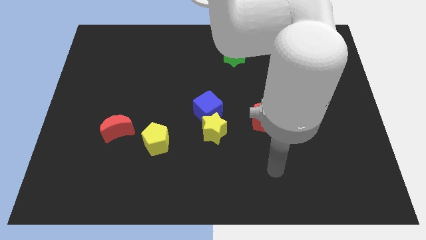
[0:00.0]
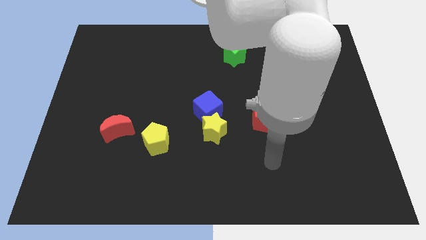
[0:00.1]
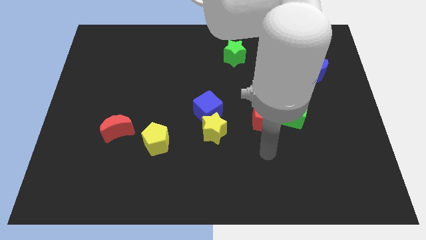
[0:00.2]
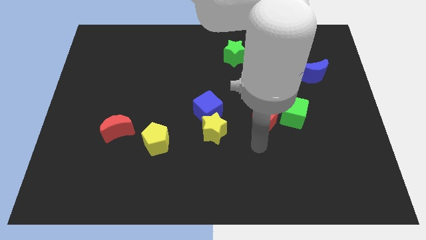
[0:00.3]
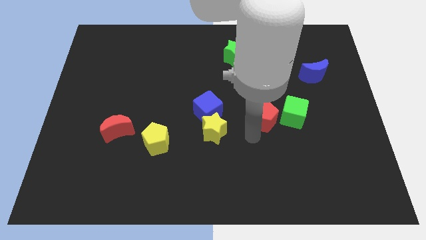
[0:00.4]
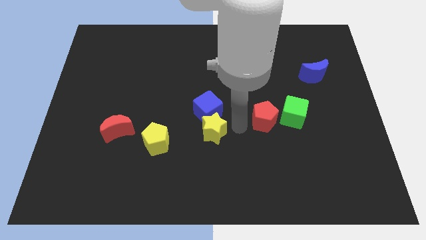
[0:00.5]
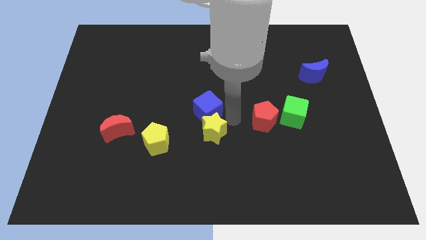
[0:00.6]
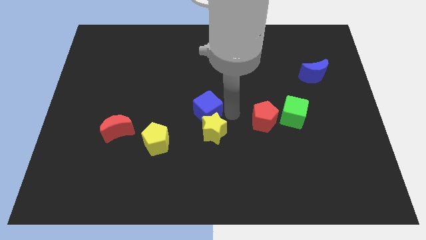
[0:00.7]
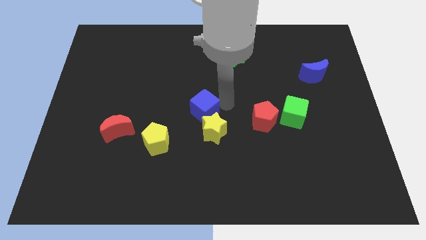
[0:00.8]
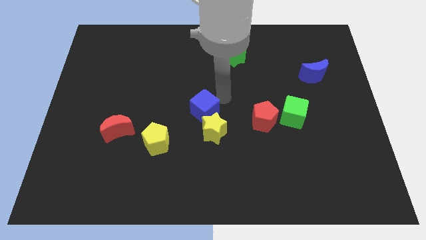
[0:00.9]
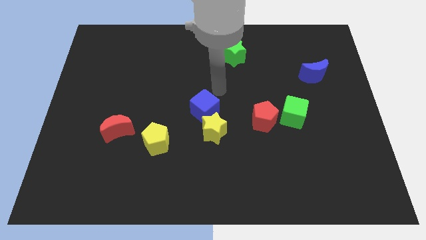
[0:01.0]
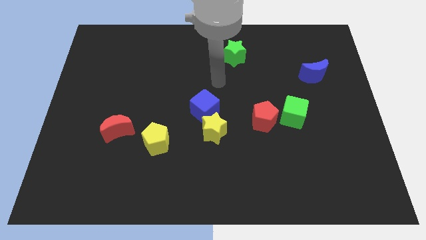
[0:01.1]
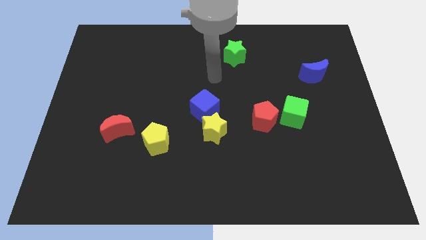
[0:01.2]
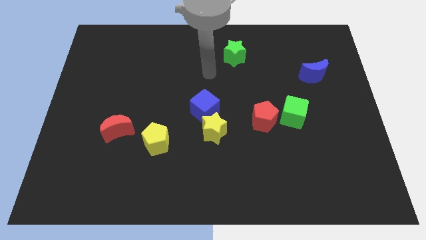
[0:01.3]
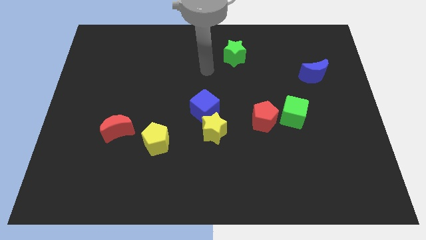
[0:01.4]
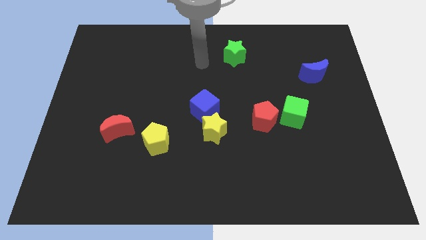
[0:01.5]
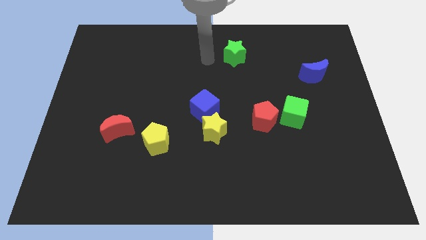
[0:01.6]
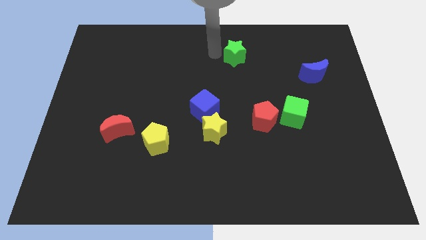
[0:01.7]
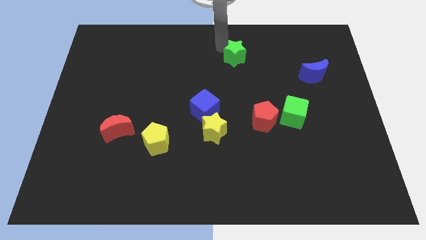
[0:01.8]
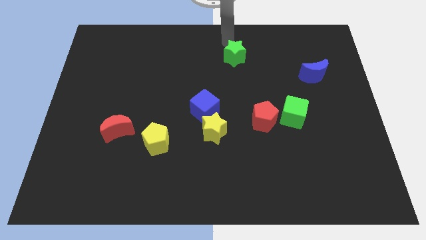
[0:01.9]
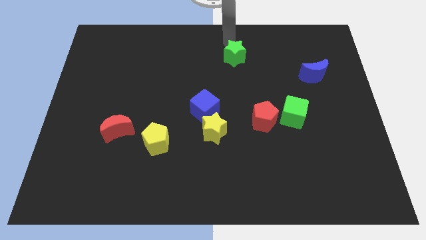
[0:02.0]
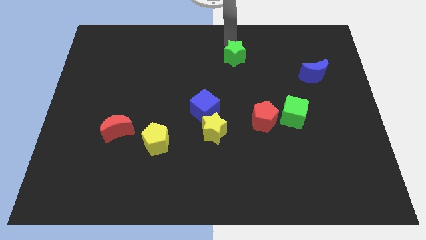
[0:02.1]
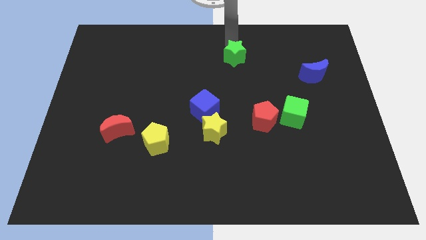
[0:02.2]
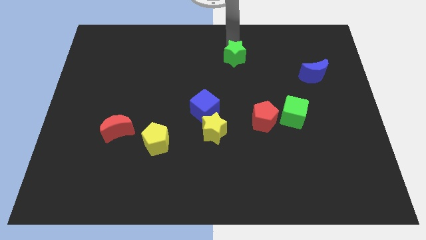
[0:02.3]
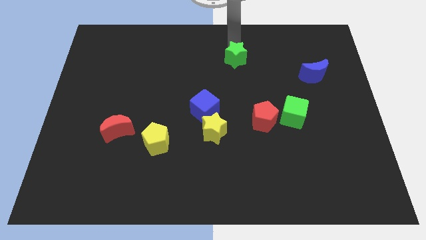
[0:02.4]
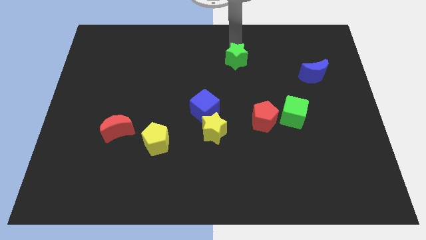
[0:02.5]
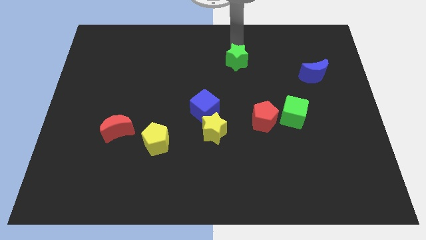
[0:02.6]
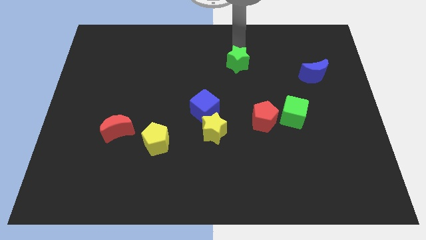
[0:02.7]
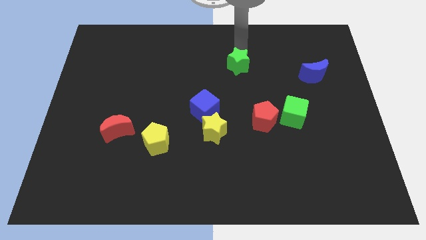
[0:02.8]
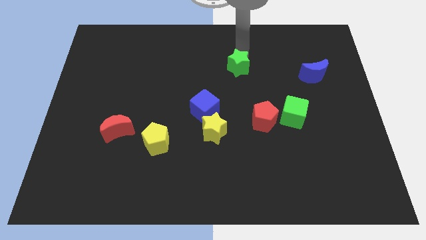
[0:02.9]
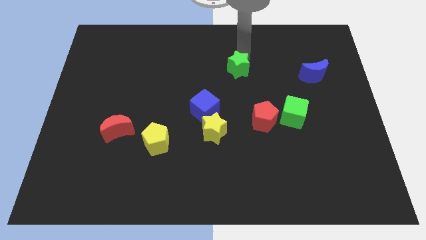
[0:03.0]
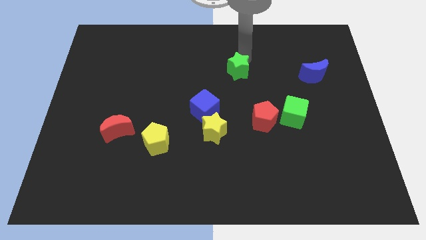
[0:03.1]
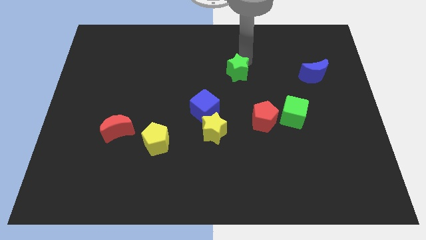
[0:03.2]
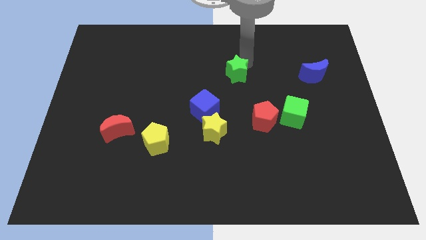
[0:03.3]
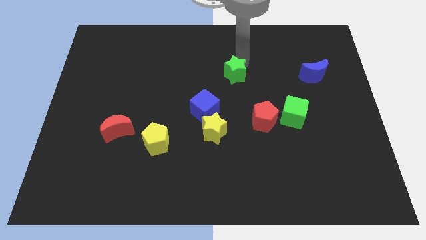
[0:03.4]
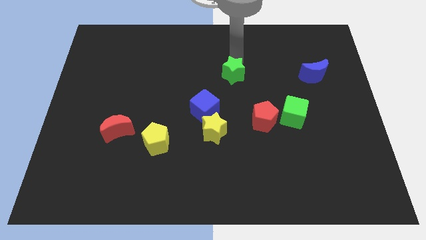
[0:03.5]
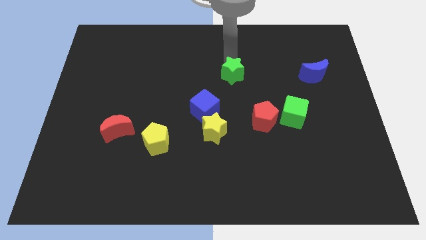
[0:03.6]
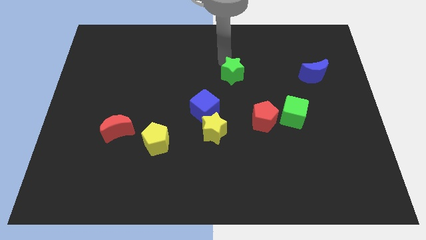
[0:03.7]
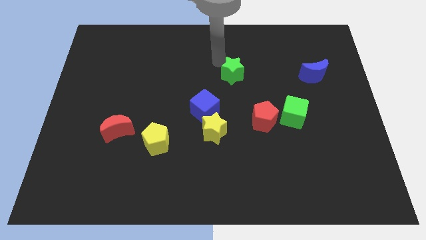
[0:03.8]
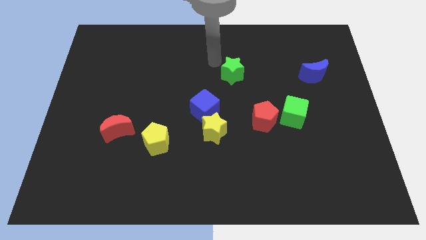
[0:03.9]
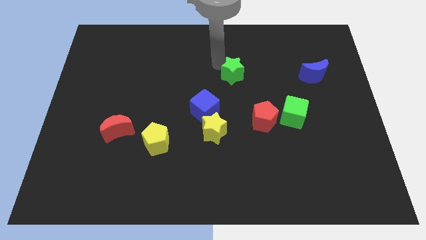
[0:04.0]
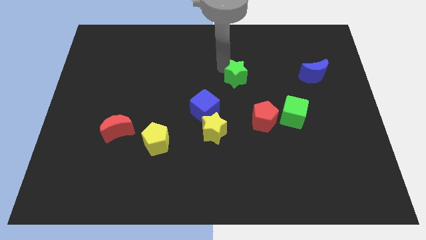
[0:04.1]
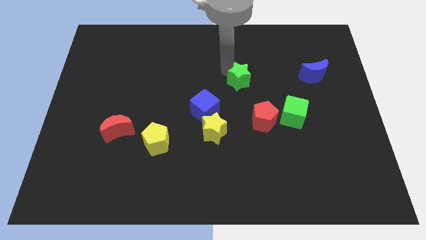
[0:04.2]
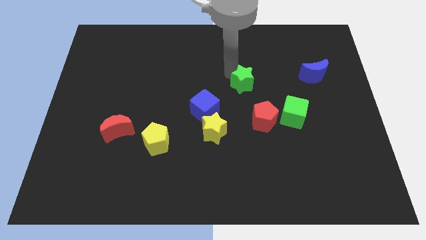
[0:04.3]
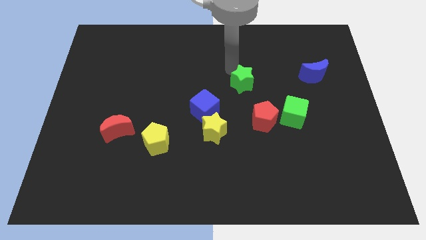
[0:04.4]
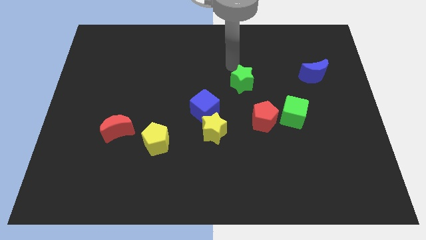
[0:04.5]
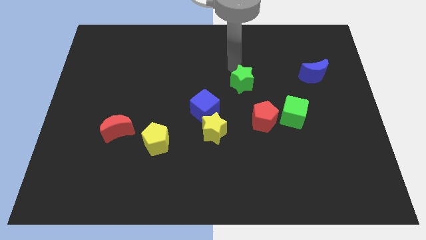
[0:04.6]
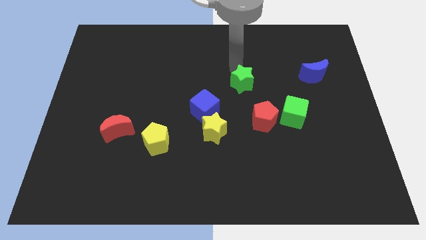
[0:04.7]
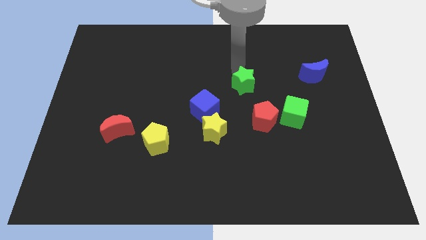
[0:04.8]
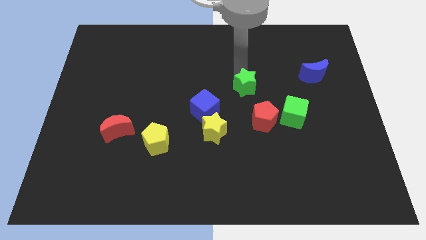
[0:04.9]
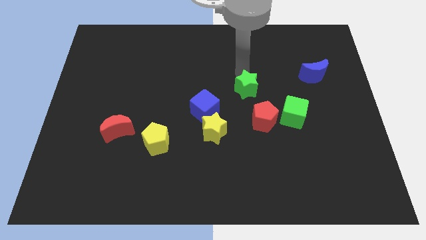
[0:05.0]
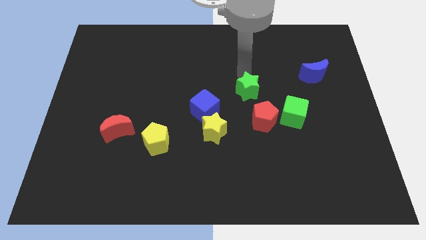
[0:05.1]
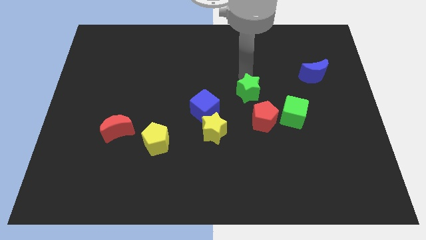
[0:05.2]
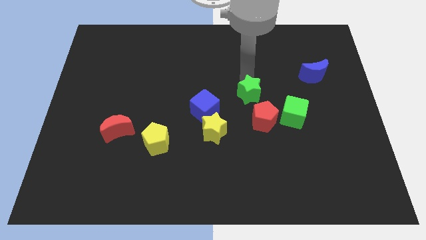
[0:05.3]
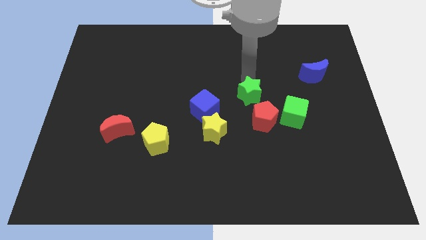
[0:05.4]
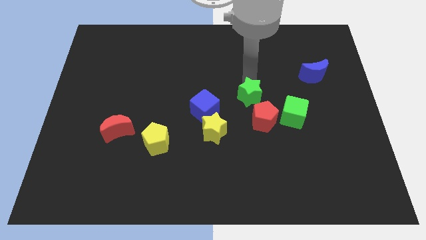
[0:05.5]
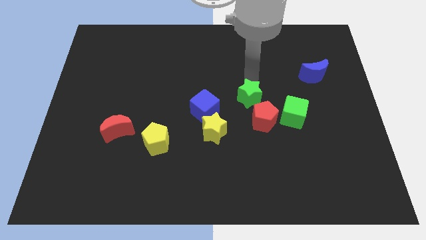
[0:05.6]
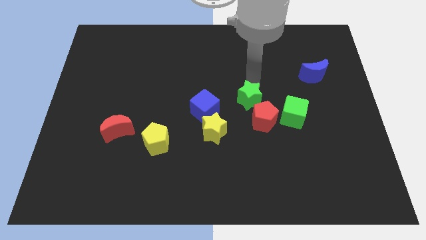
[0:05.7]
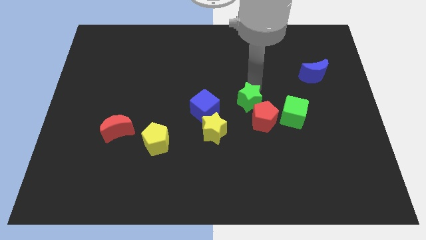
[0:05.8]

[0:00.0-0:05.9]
push the green star towards the red pentagon

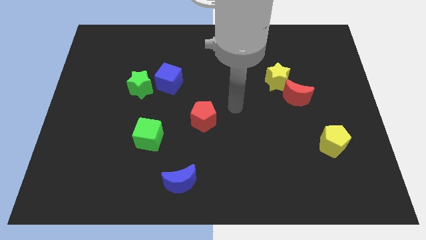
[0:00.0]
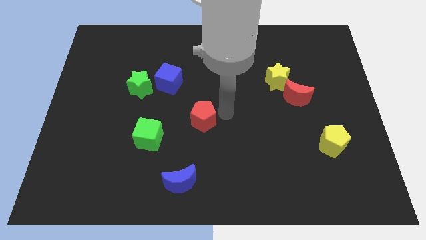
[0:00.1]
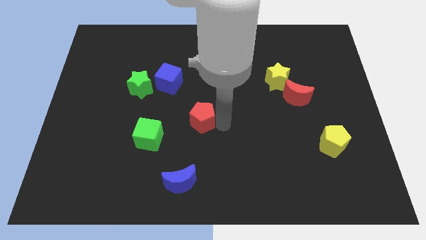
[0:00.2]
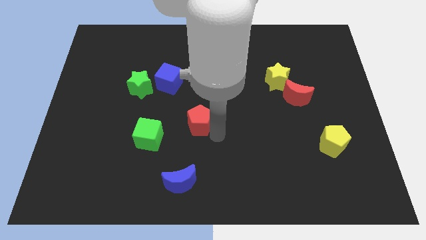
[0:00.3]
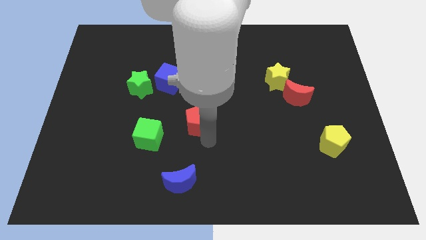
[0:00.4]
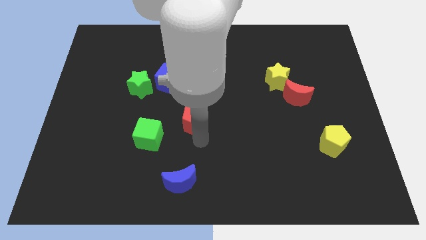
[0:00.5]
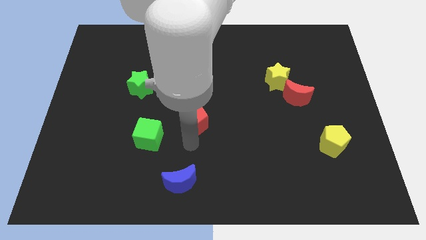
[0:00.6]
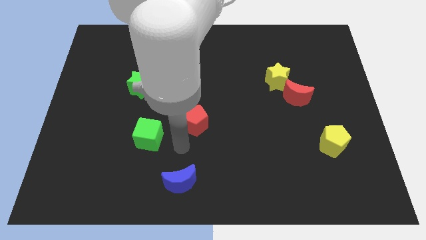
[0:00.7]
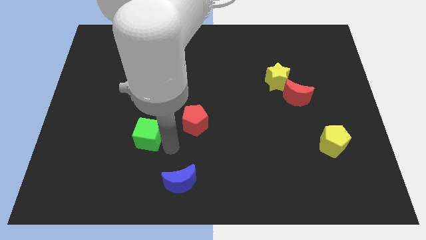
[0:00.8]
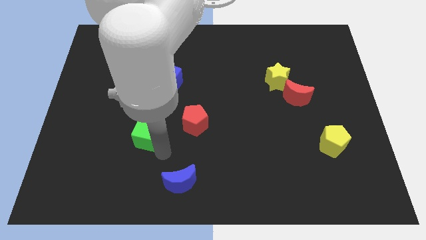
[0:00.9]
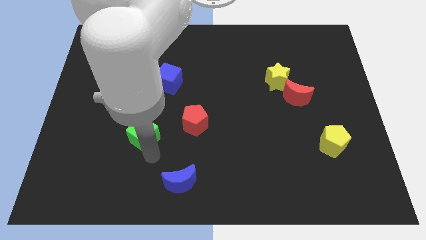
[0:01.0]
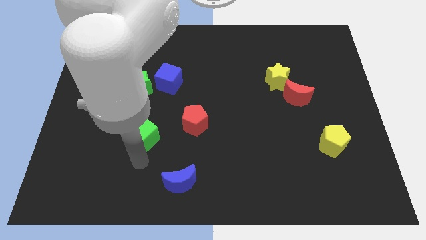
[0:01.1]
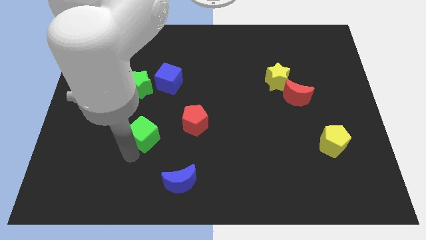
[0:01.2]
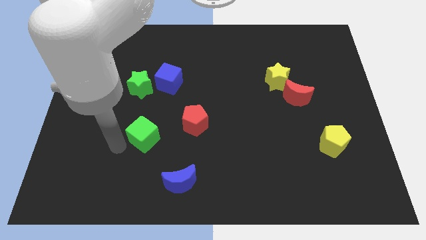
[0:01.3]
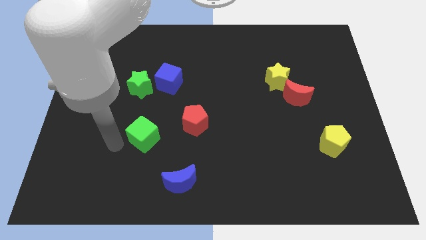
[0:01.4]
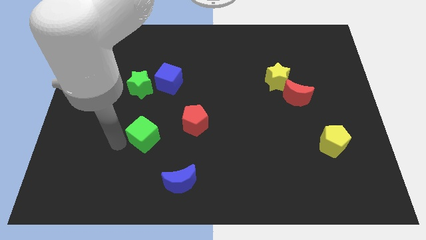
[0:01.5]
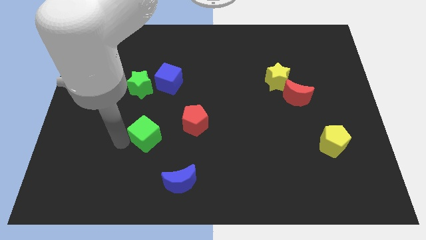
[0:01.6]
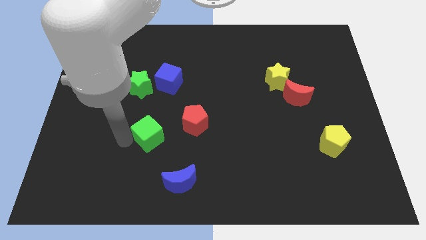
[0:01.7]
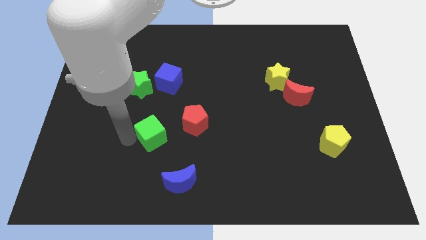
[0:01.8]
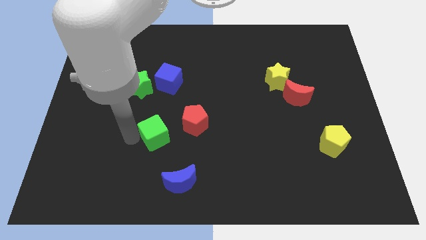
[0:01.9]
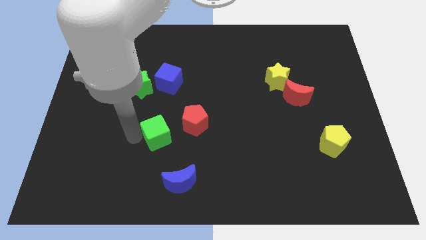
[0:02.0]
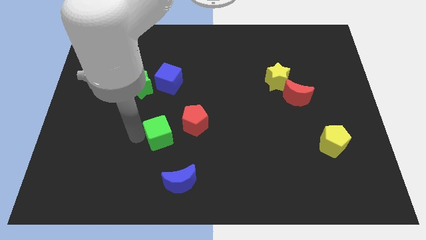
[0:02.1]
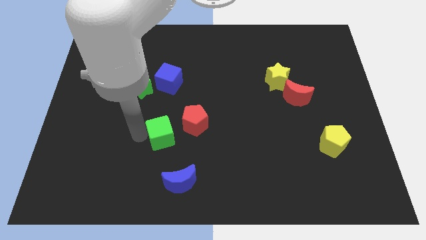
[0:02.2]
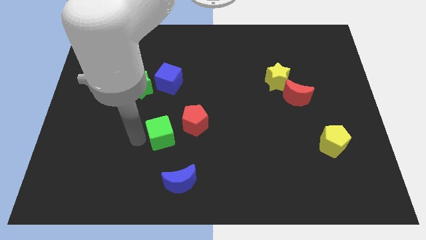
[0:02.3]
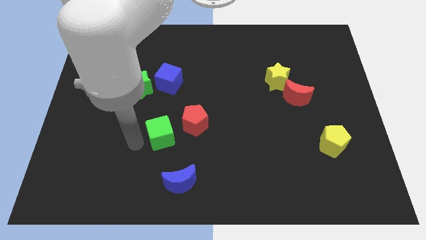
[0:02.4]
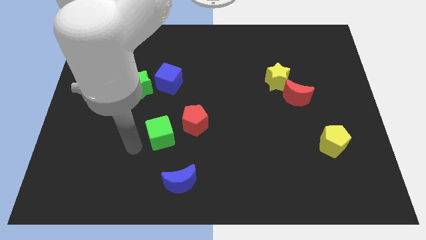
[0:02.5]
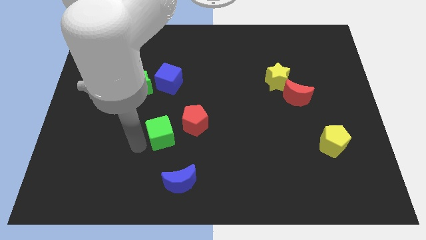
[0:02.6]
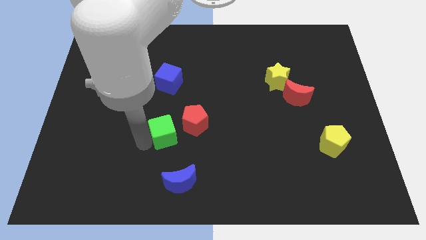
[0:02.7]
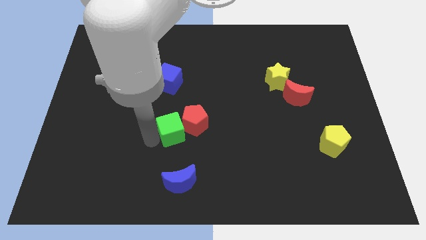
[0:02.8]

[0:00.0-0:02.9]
push the green cube next to the red pentagon
